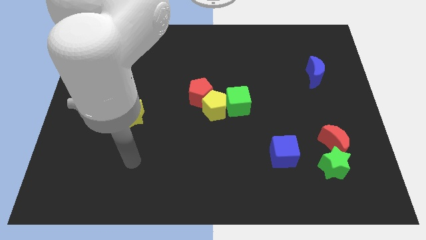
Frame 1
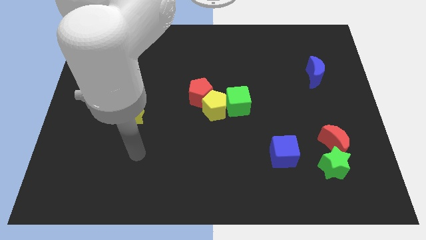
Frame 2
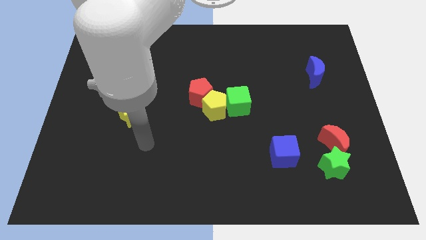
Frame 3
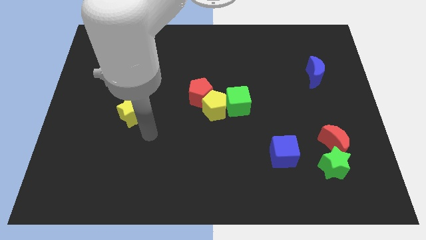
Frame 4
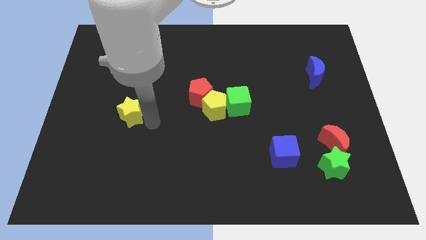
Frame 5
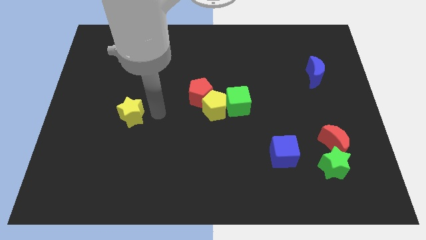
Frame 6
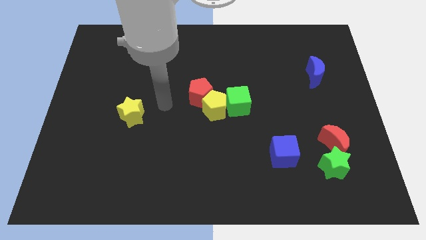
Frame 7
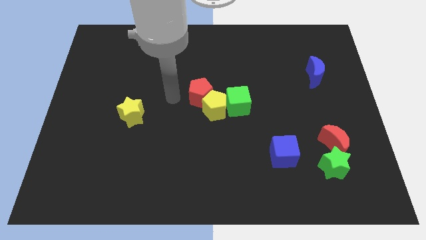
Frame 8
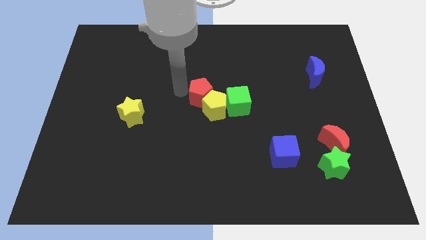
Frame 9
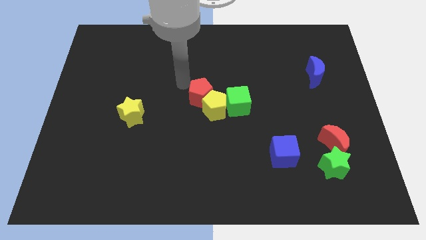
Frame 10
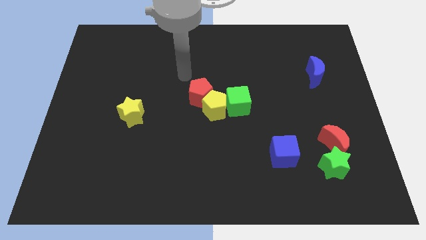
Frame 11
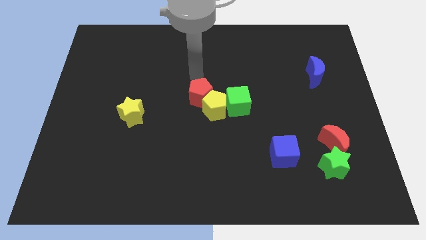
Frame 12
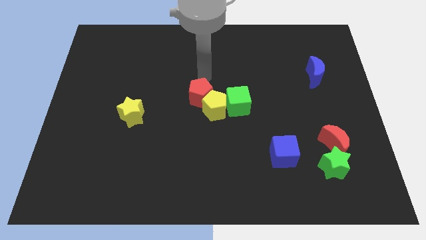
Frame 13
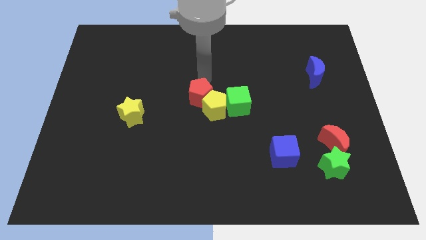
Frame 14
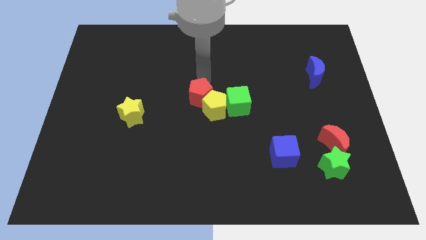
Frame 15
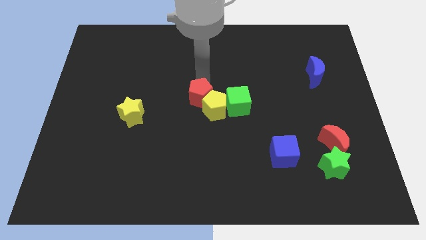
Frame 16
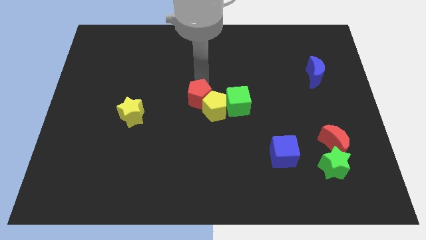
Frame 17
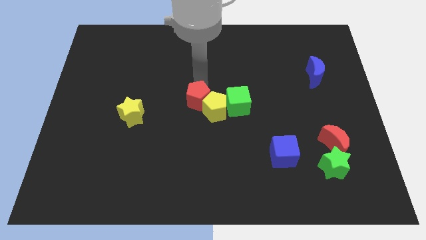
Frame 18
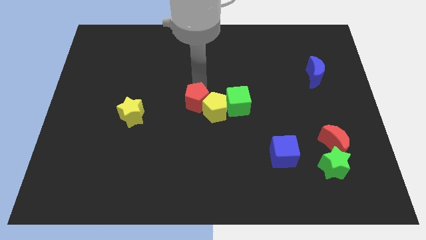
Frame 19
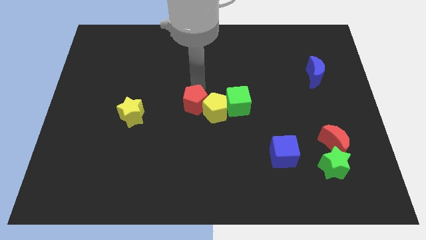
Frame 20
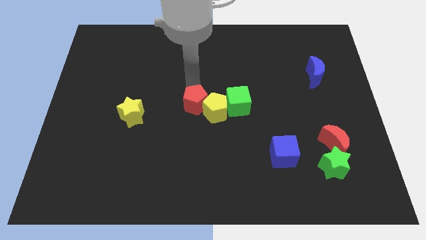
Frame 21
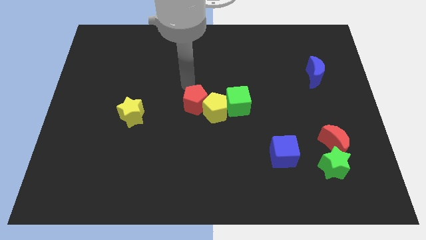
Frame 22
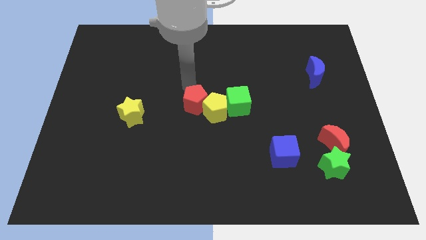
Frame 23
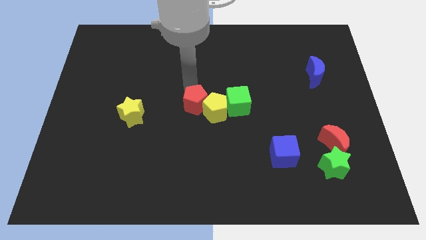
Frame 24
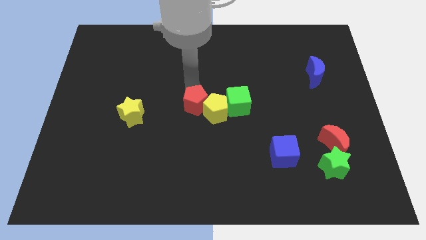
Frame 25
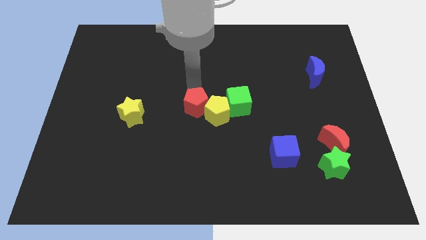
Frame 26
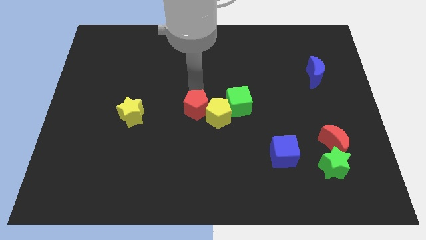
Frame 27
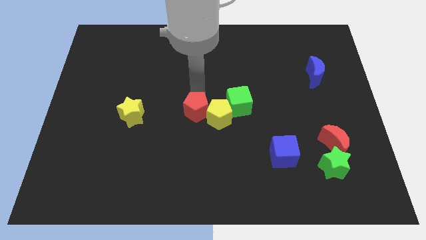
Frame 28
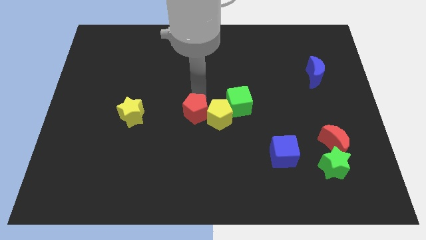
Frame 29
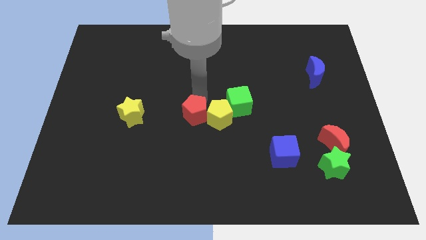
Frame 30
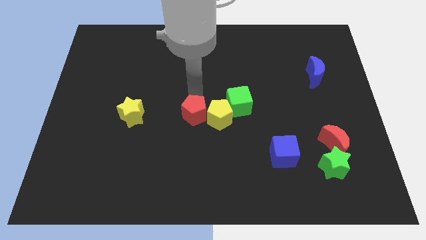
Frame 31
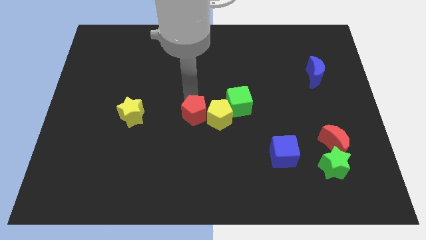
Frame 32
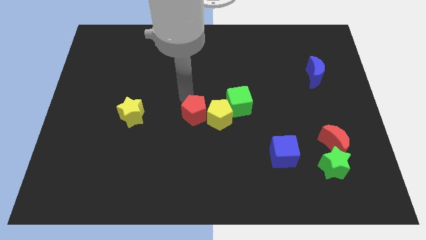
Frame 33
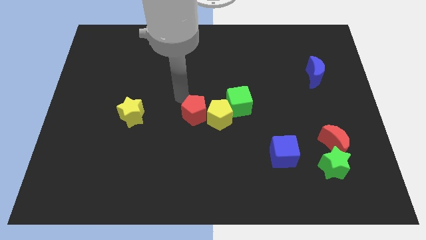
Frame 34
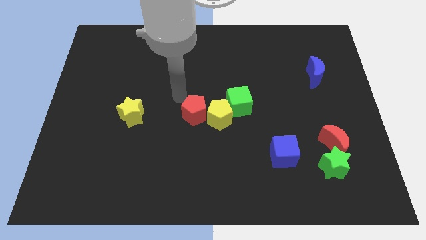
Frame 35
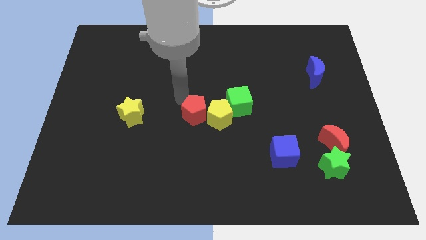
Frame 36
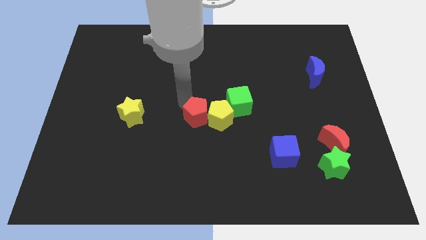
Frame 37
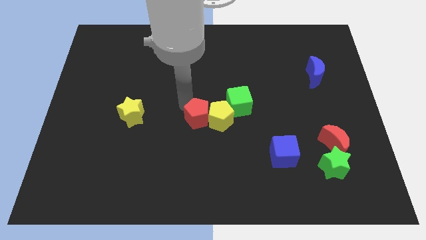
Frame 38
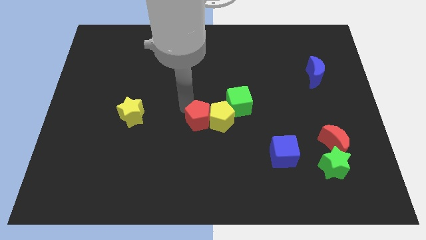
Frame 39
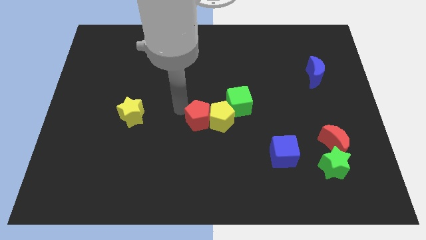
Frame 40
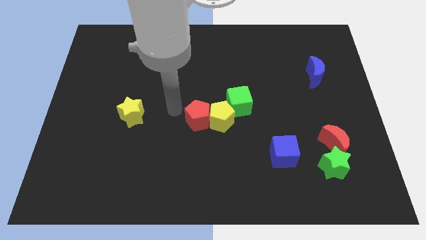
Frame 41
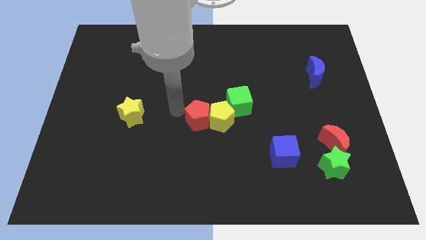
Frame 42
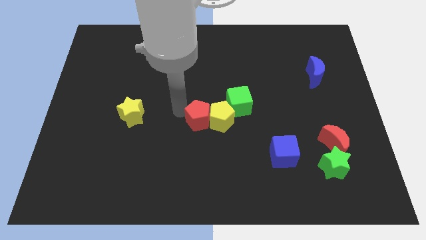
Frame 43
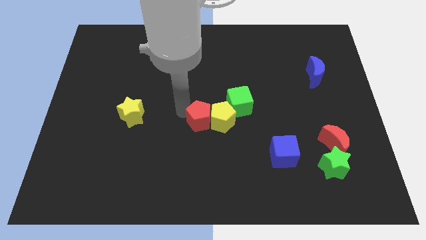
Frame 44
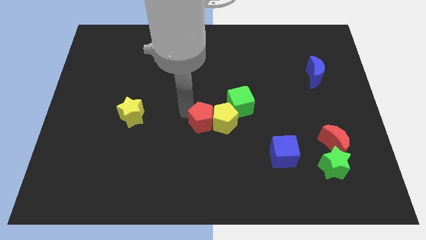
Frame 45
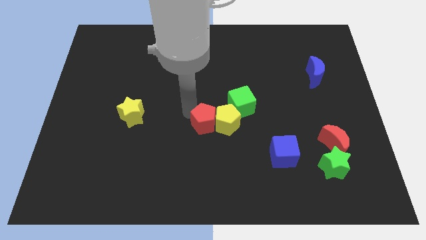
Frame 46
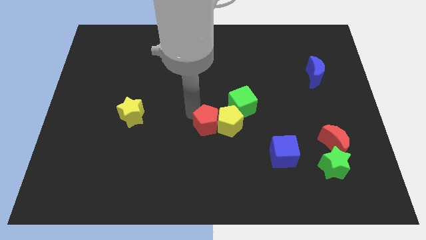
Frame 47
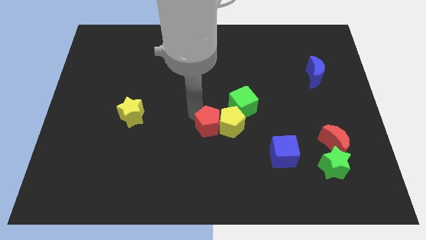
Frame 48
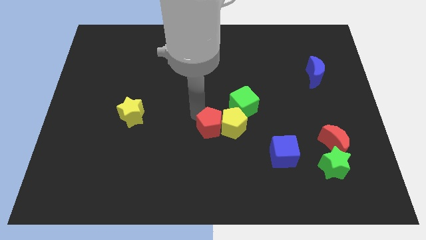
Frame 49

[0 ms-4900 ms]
push the red pentagon a little diagonally down and right

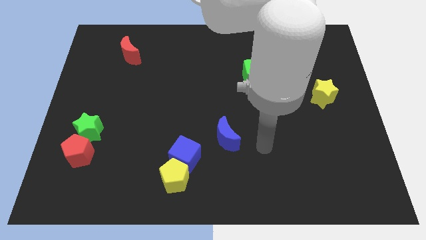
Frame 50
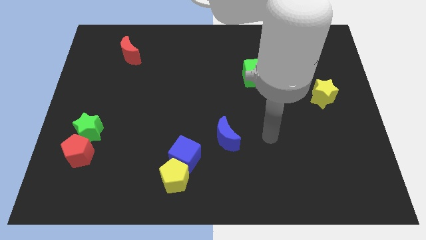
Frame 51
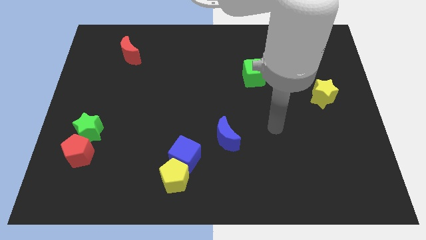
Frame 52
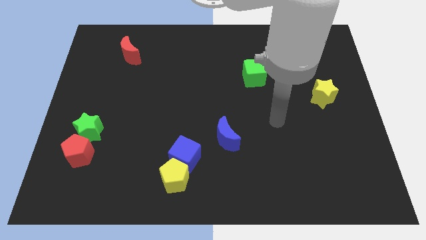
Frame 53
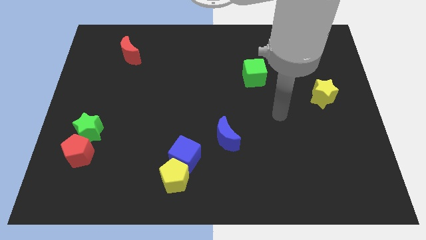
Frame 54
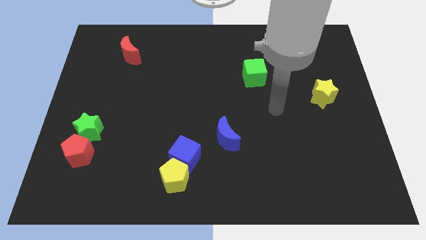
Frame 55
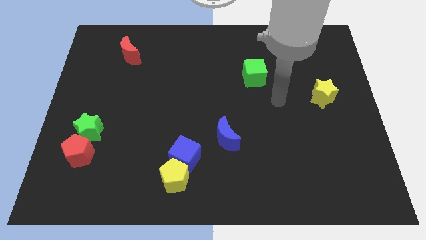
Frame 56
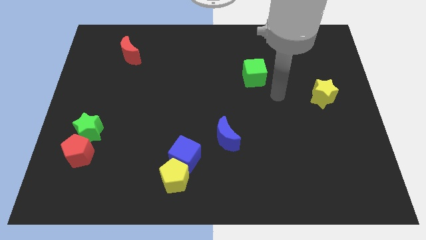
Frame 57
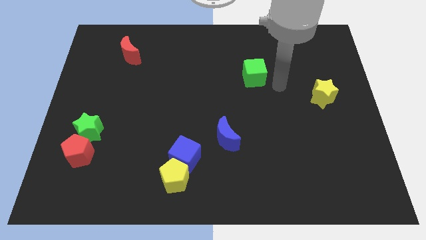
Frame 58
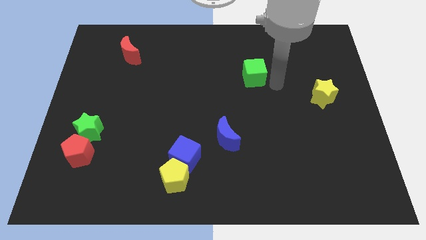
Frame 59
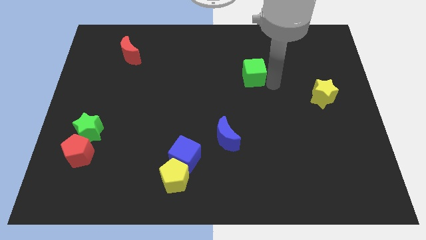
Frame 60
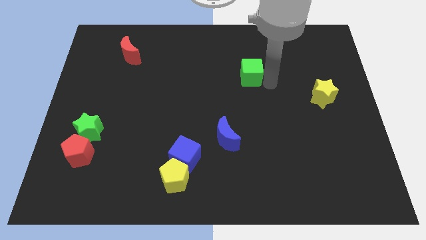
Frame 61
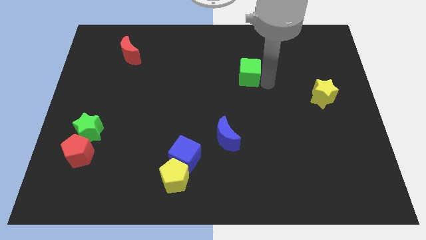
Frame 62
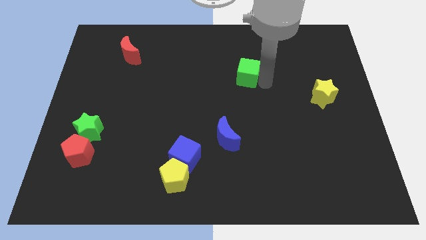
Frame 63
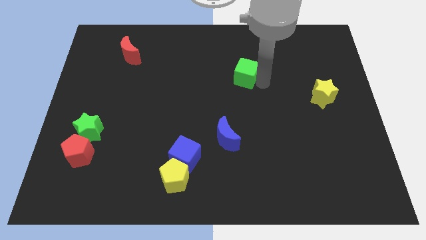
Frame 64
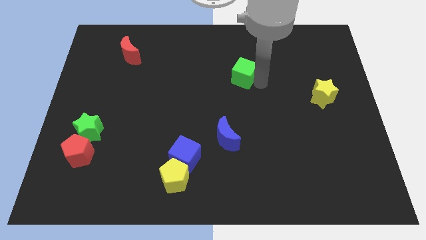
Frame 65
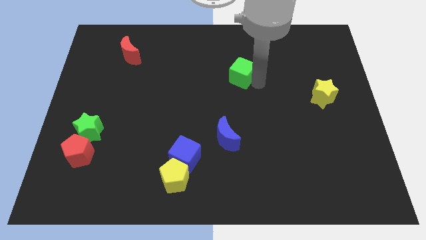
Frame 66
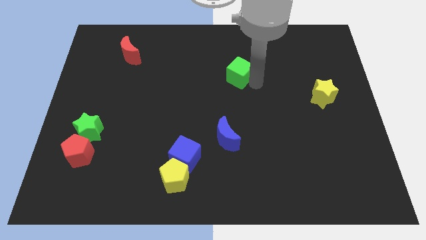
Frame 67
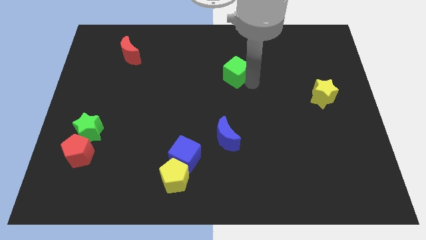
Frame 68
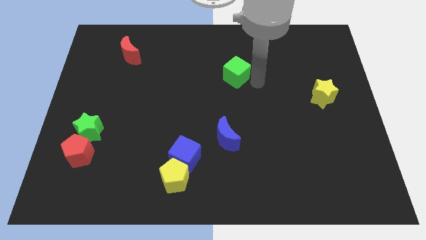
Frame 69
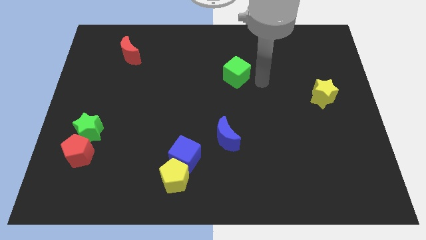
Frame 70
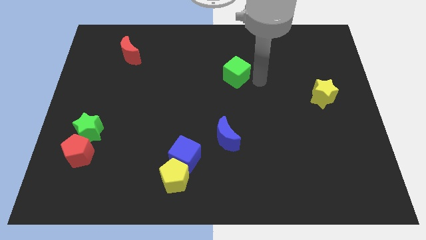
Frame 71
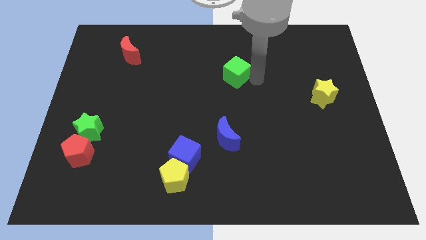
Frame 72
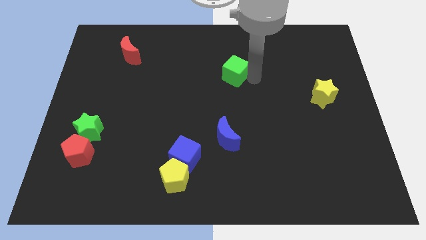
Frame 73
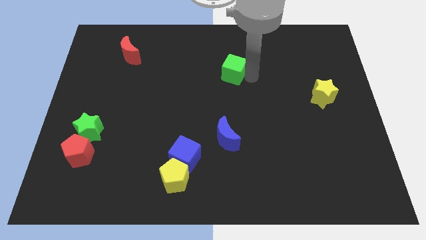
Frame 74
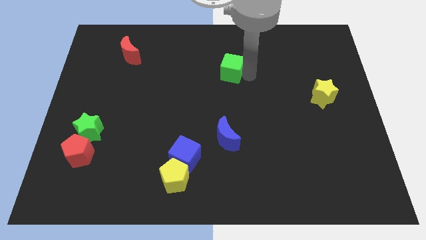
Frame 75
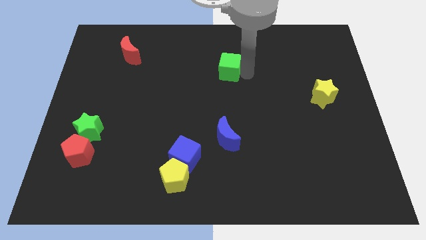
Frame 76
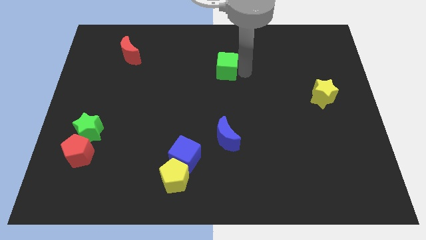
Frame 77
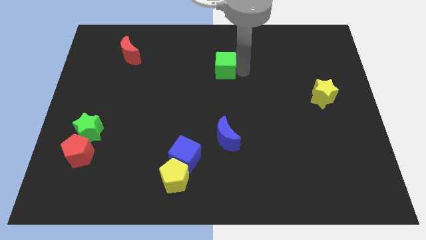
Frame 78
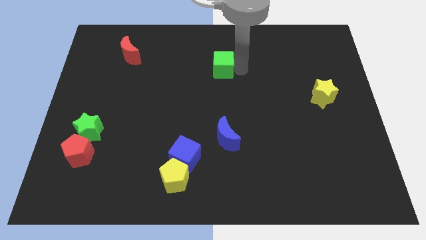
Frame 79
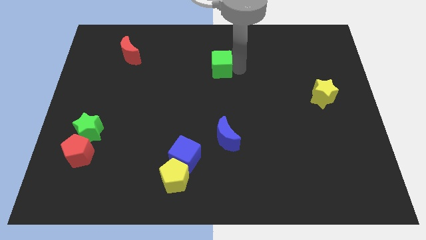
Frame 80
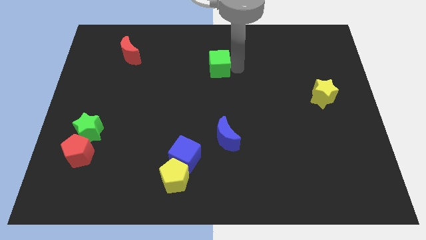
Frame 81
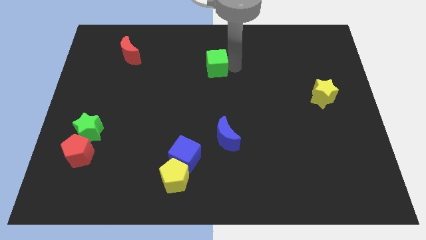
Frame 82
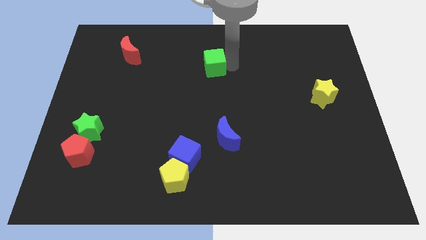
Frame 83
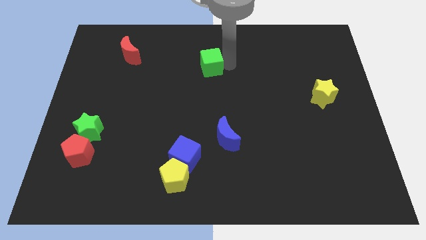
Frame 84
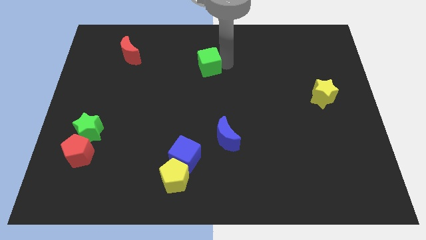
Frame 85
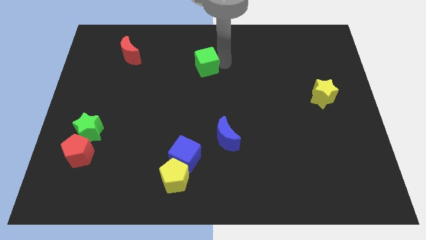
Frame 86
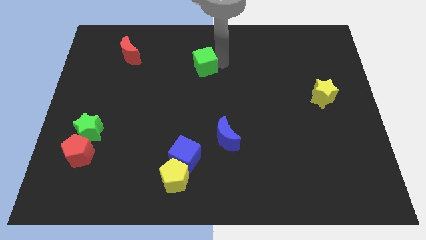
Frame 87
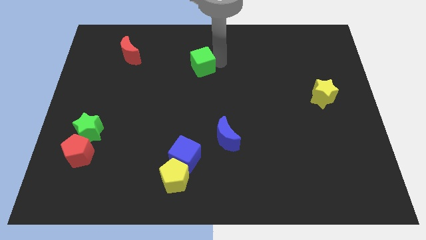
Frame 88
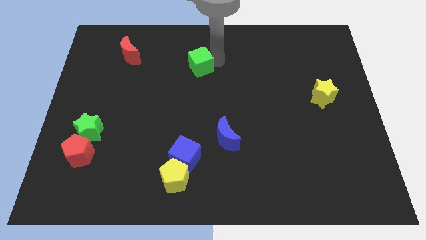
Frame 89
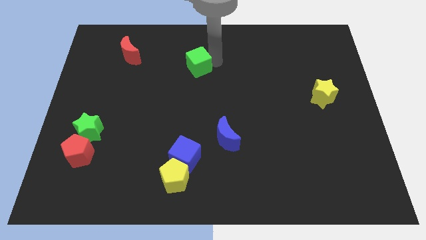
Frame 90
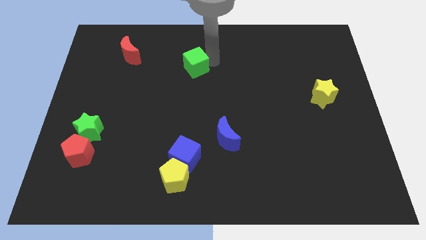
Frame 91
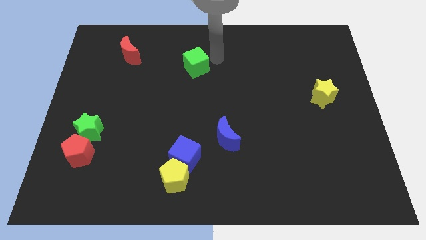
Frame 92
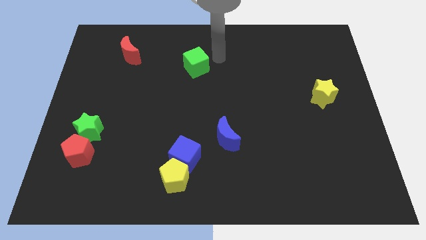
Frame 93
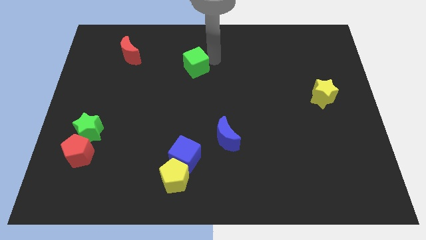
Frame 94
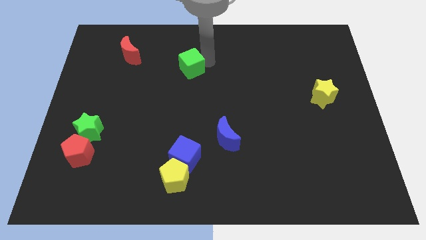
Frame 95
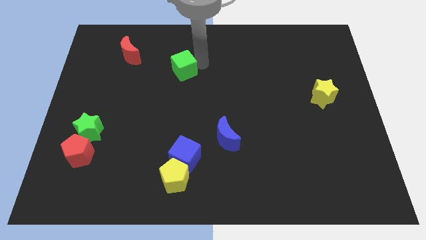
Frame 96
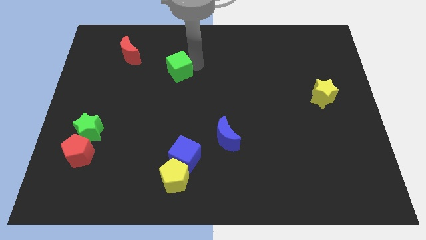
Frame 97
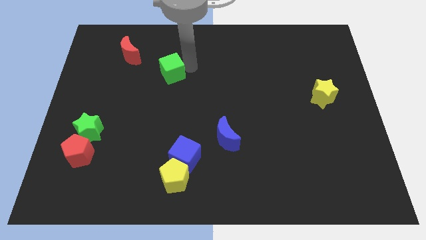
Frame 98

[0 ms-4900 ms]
push the green cube to the left
